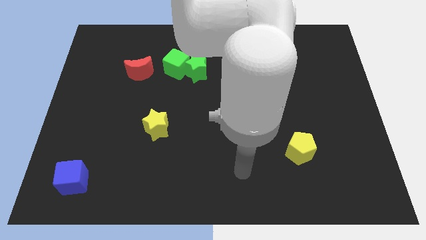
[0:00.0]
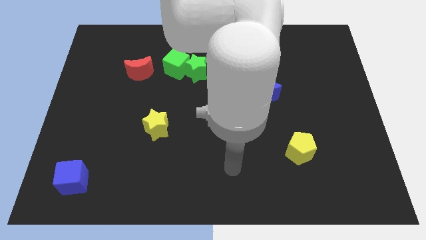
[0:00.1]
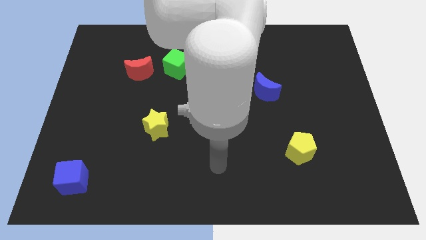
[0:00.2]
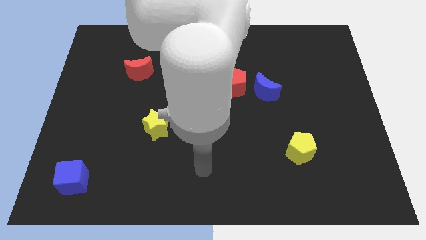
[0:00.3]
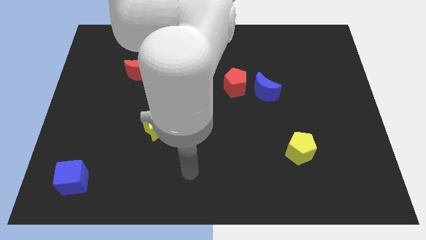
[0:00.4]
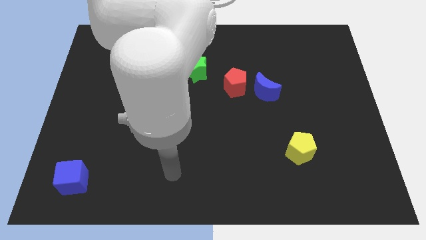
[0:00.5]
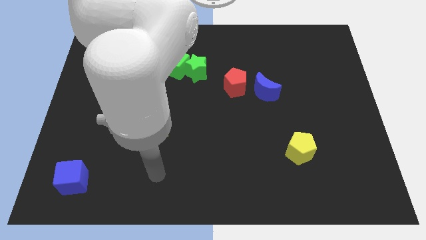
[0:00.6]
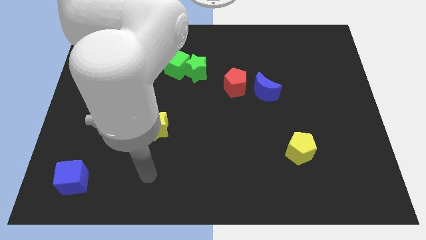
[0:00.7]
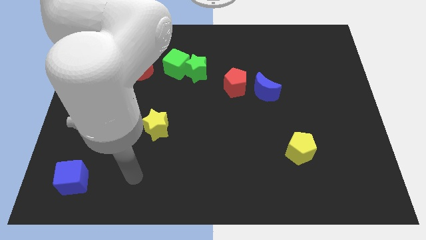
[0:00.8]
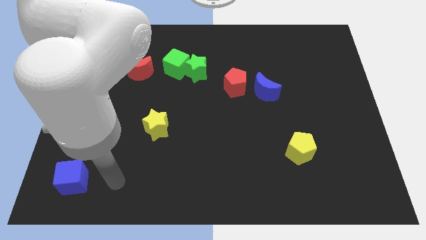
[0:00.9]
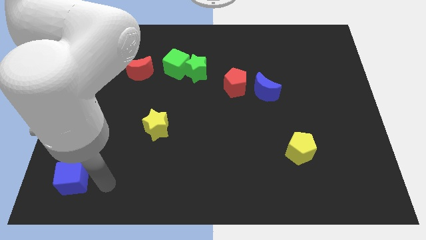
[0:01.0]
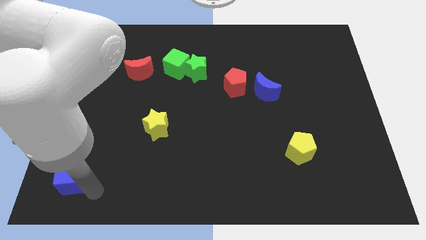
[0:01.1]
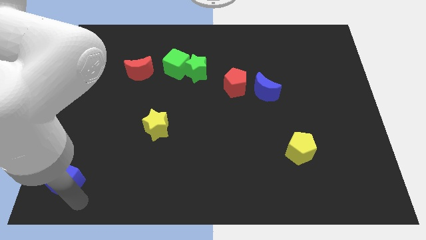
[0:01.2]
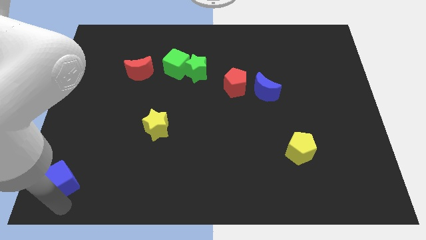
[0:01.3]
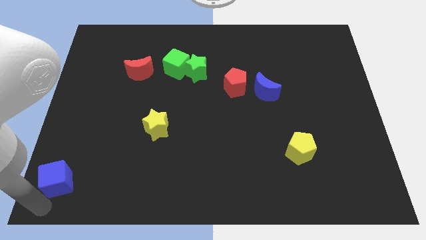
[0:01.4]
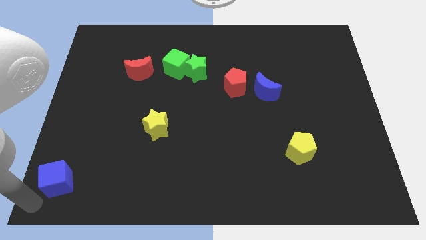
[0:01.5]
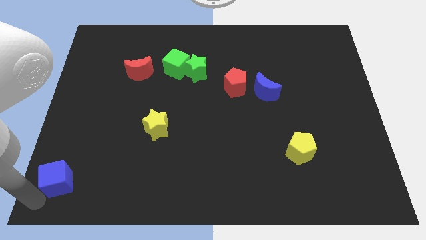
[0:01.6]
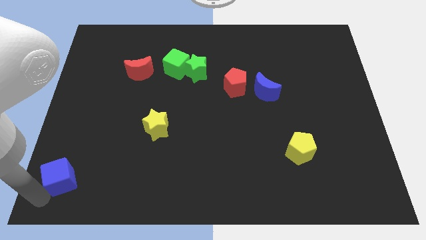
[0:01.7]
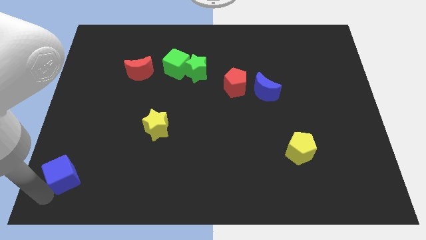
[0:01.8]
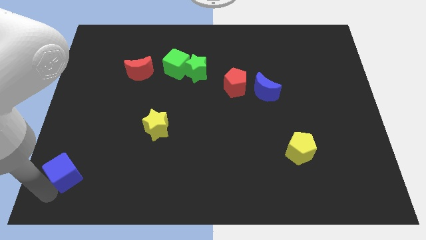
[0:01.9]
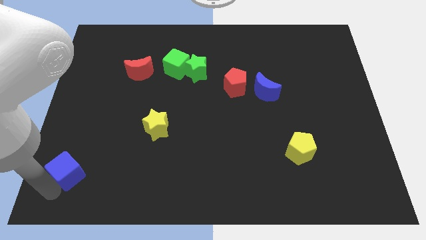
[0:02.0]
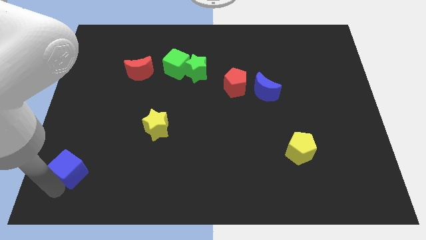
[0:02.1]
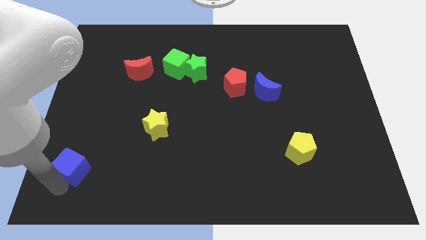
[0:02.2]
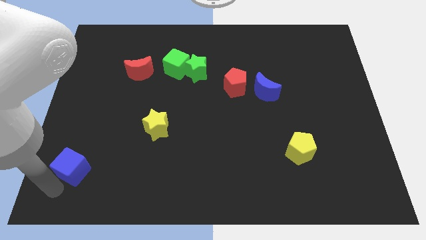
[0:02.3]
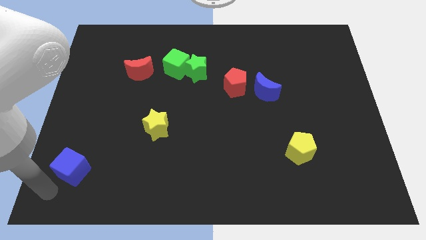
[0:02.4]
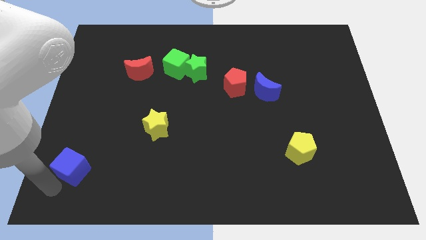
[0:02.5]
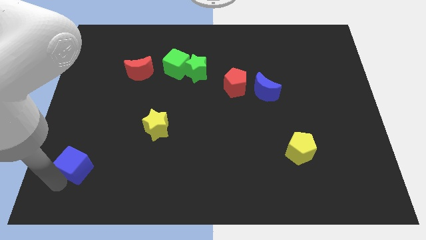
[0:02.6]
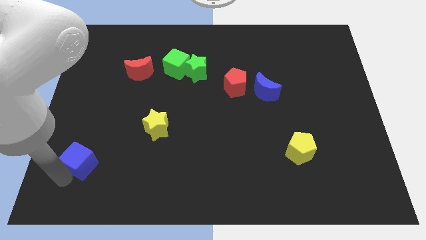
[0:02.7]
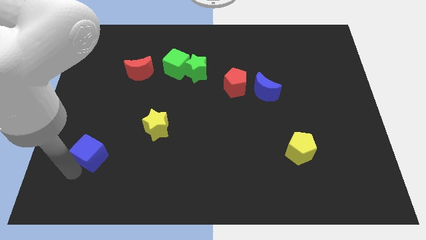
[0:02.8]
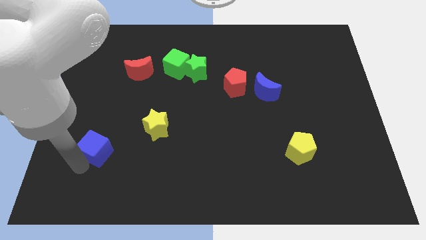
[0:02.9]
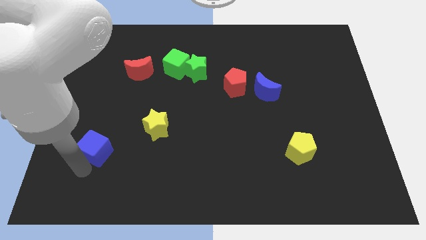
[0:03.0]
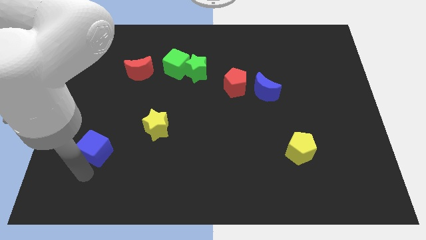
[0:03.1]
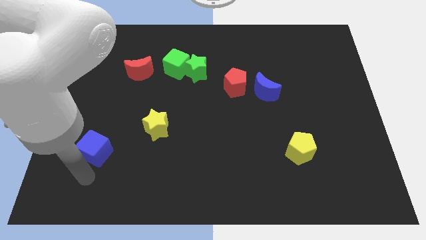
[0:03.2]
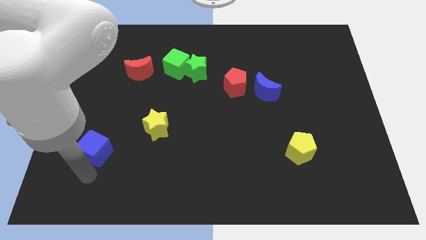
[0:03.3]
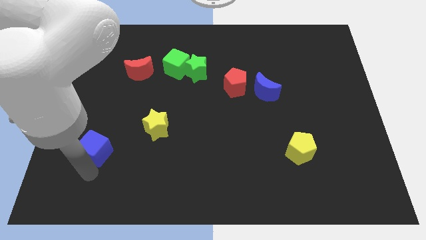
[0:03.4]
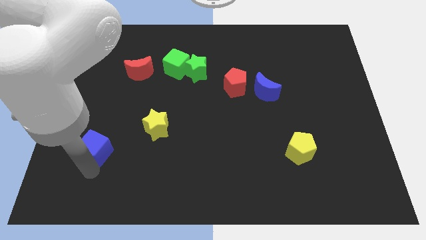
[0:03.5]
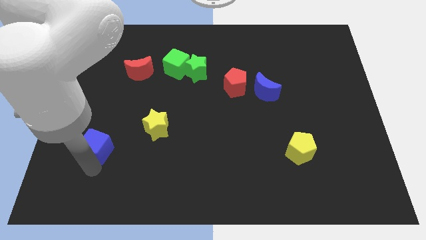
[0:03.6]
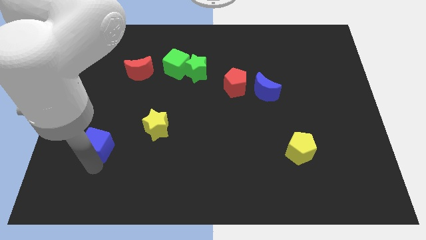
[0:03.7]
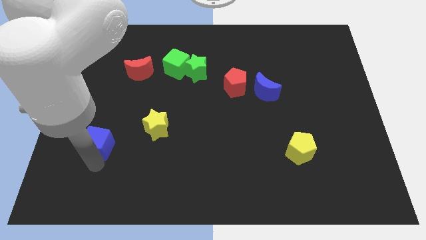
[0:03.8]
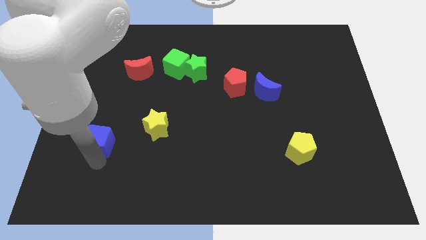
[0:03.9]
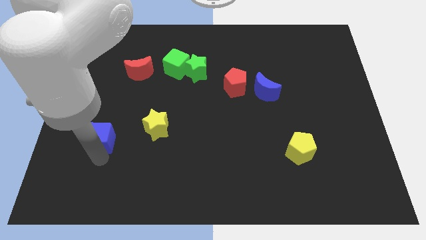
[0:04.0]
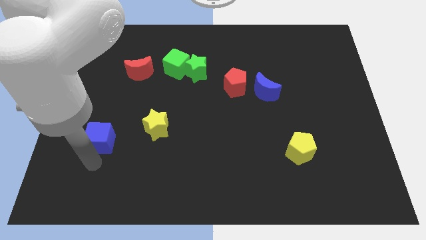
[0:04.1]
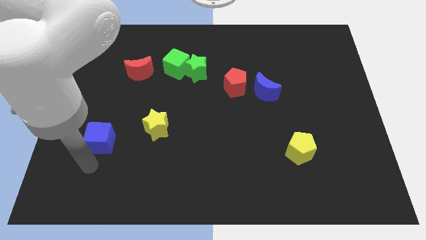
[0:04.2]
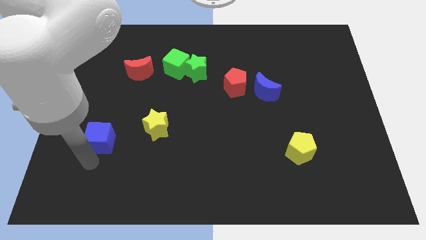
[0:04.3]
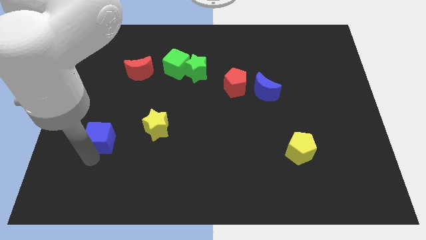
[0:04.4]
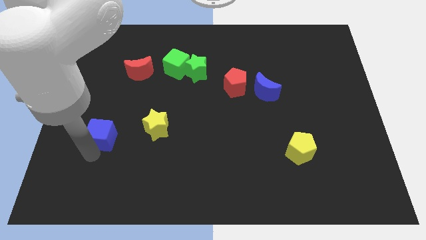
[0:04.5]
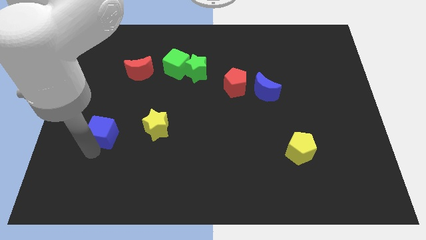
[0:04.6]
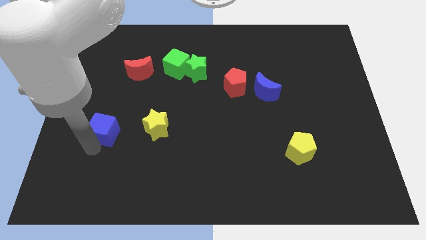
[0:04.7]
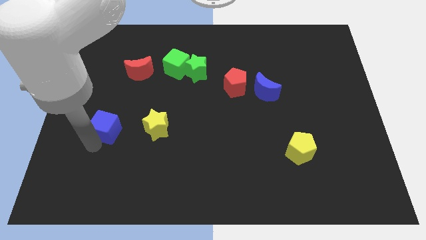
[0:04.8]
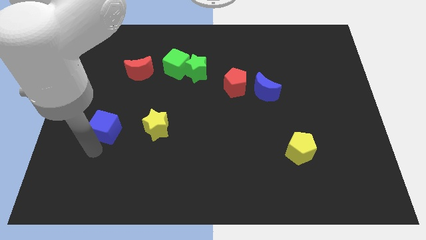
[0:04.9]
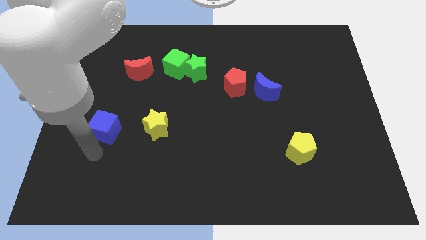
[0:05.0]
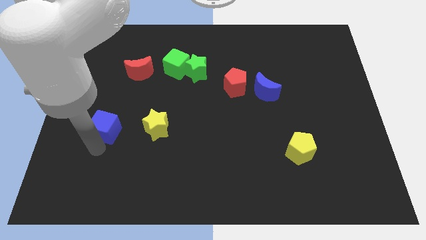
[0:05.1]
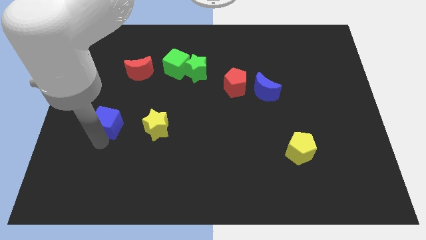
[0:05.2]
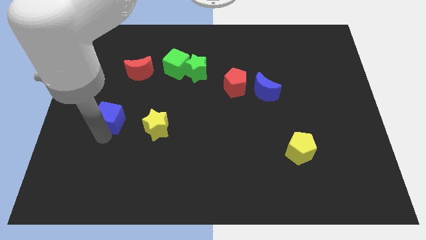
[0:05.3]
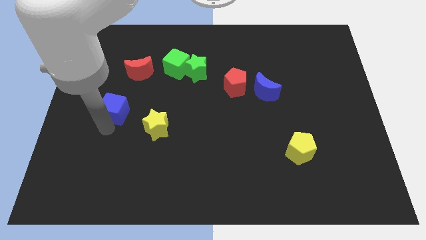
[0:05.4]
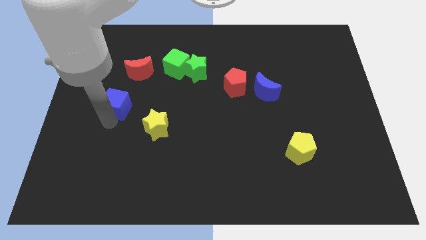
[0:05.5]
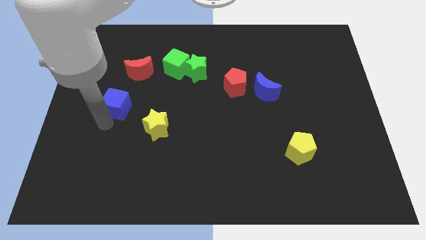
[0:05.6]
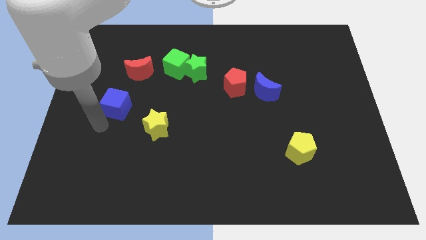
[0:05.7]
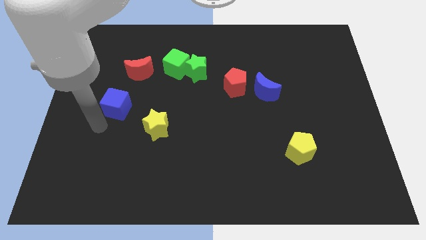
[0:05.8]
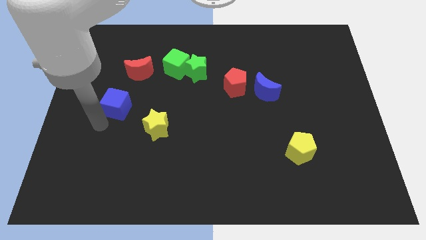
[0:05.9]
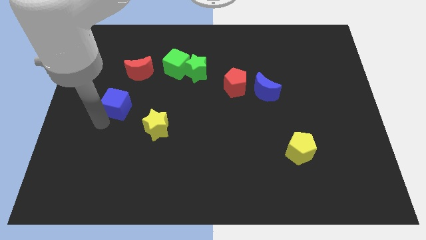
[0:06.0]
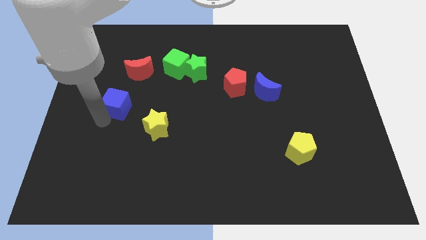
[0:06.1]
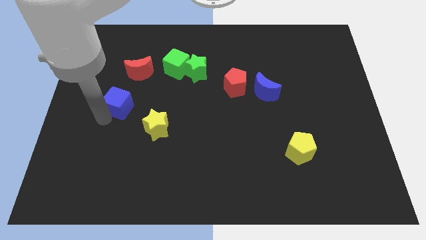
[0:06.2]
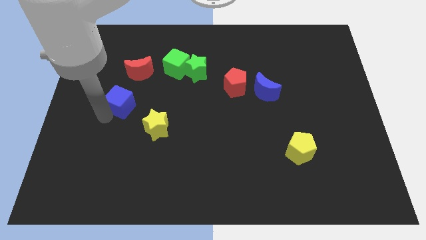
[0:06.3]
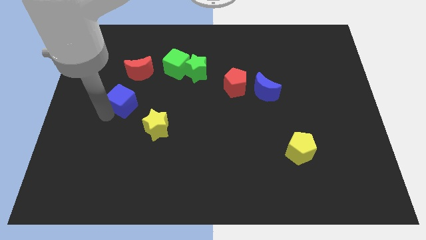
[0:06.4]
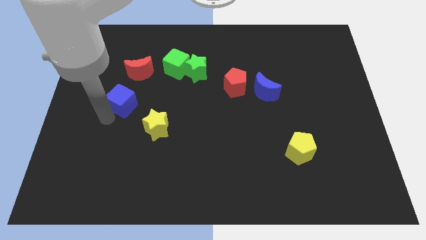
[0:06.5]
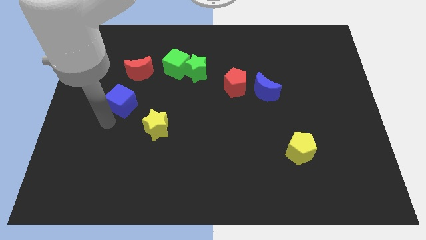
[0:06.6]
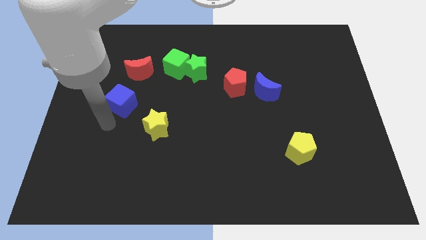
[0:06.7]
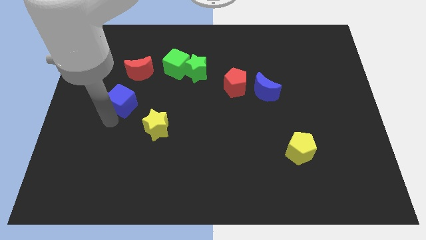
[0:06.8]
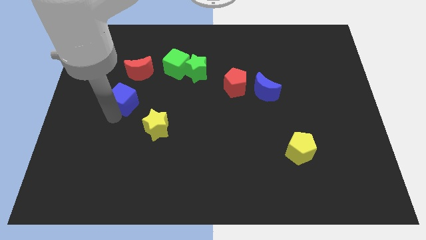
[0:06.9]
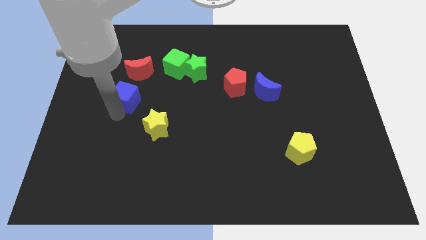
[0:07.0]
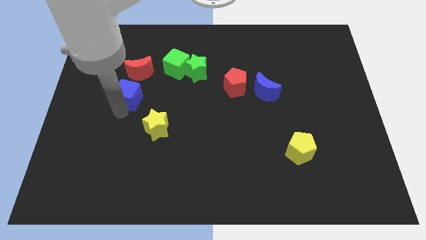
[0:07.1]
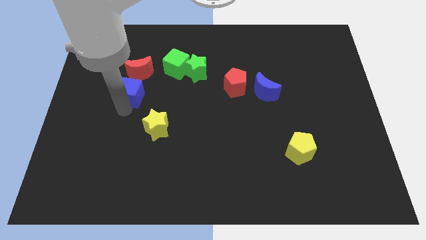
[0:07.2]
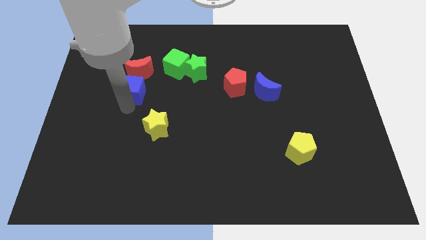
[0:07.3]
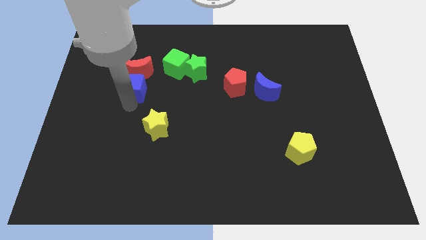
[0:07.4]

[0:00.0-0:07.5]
push the blue cube towards the red moon
